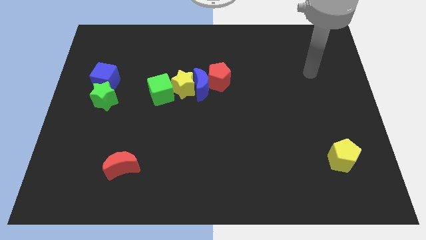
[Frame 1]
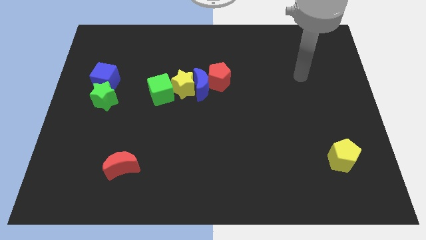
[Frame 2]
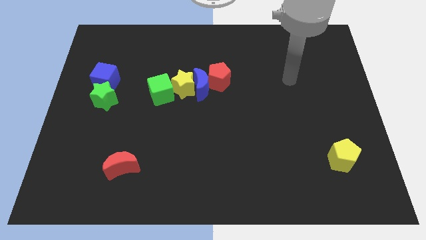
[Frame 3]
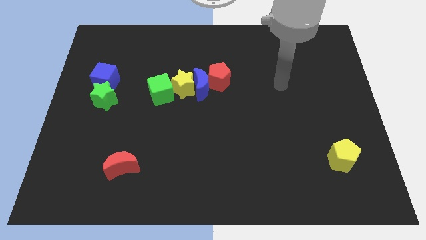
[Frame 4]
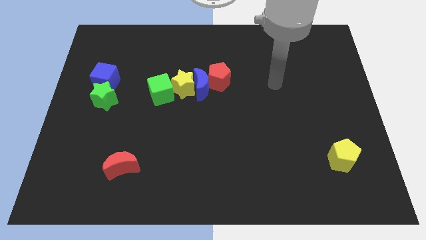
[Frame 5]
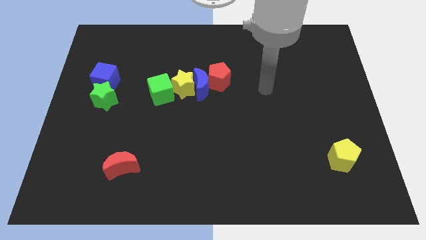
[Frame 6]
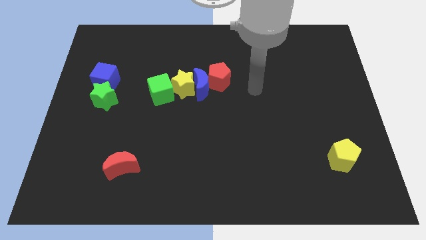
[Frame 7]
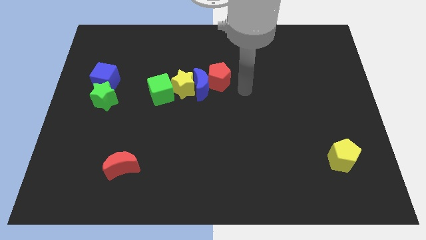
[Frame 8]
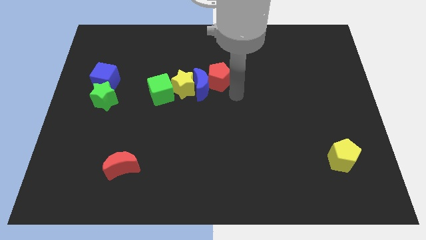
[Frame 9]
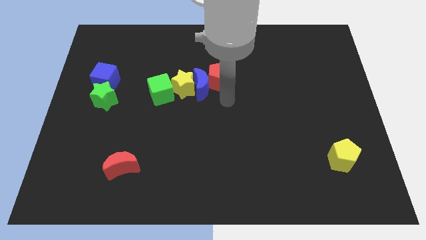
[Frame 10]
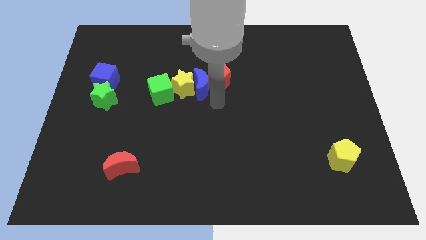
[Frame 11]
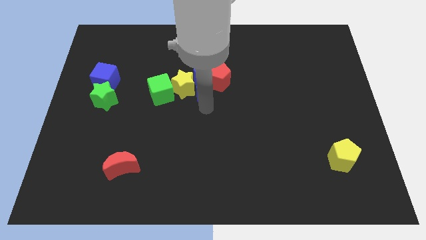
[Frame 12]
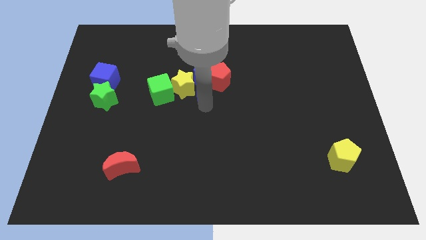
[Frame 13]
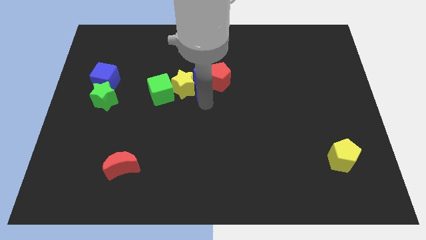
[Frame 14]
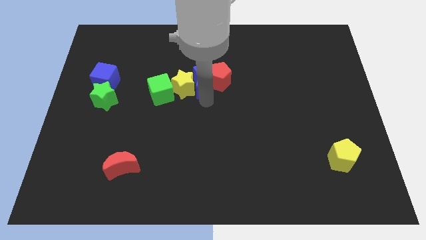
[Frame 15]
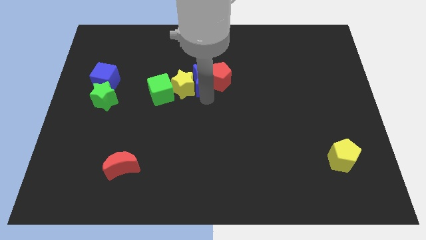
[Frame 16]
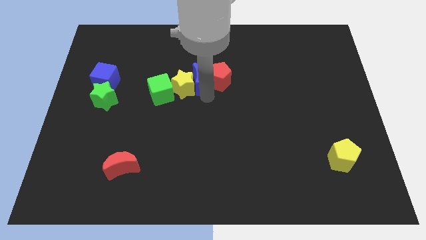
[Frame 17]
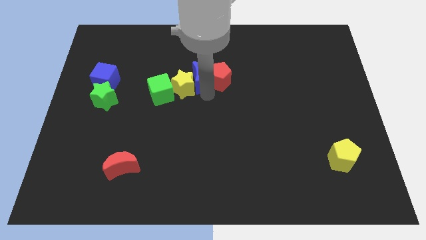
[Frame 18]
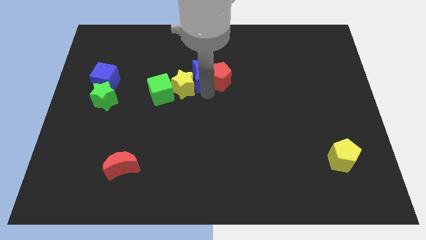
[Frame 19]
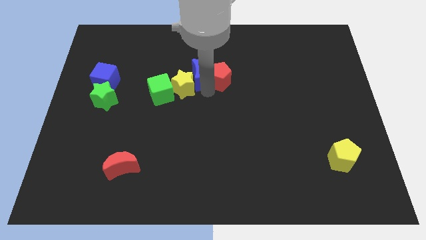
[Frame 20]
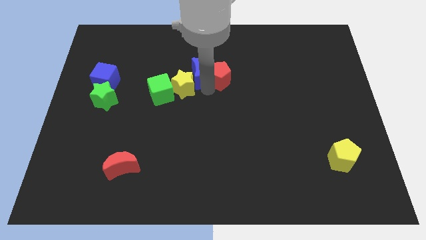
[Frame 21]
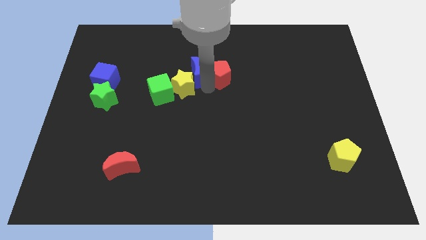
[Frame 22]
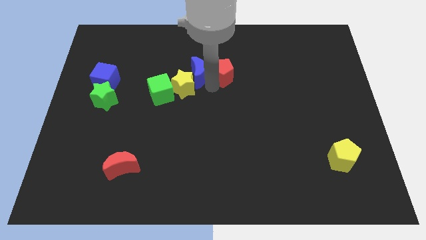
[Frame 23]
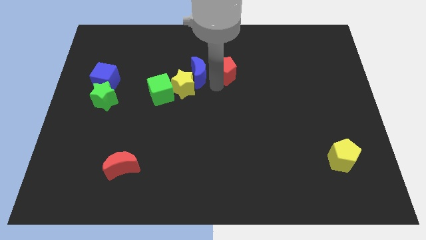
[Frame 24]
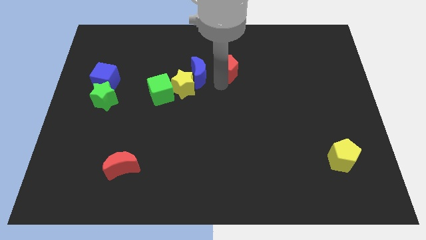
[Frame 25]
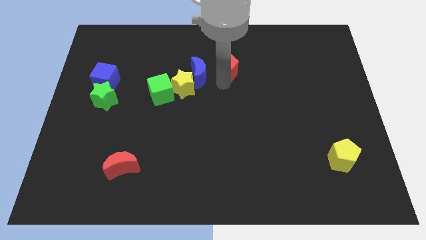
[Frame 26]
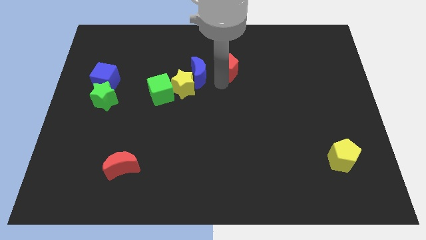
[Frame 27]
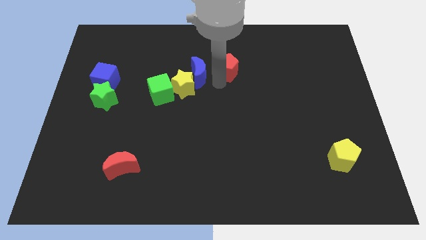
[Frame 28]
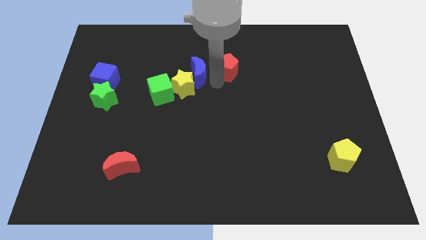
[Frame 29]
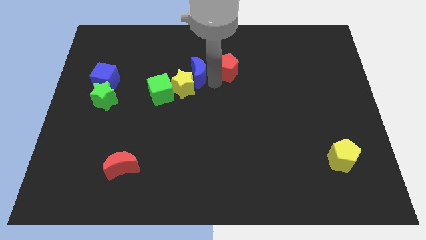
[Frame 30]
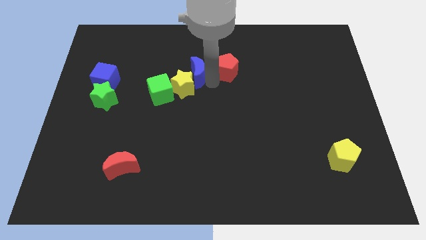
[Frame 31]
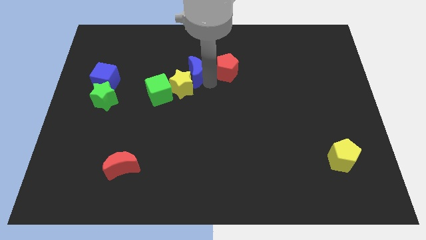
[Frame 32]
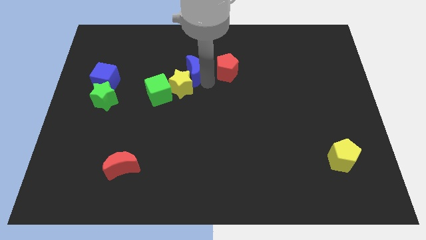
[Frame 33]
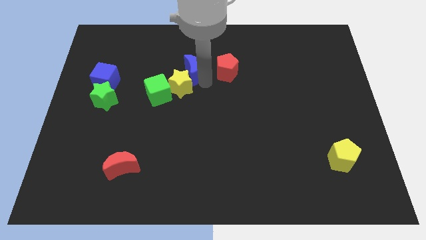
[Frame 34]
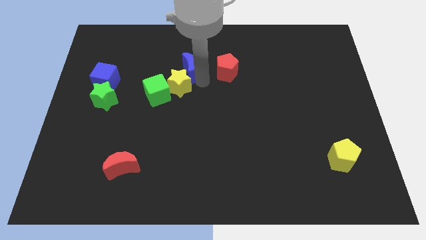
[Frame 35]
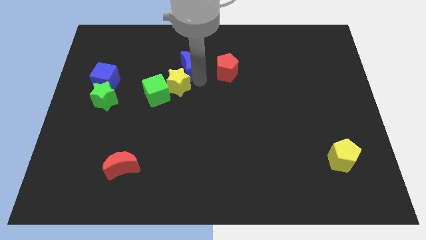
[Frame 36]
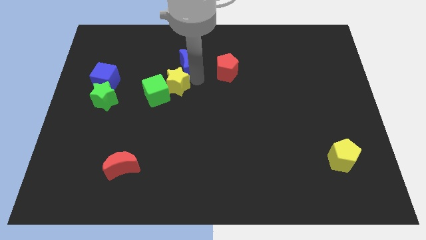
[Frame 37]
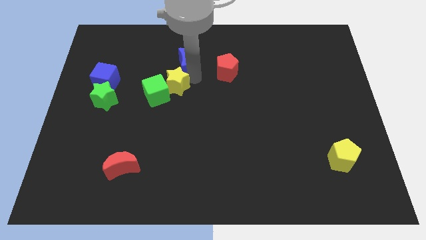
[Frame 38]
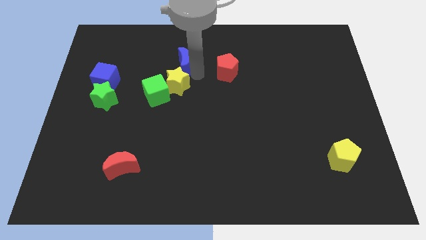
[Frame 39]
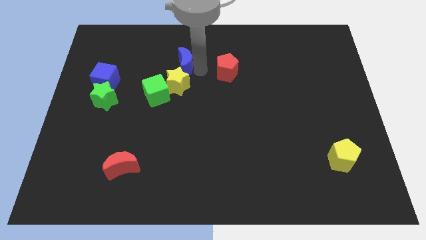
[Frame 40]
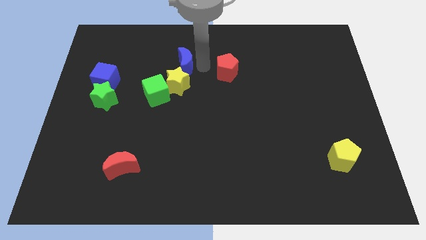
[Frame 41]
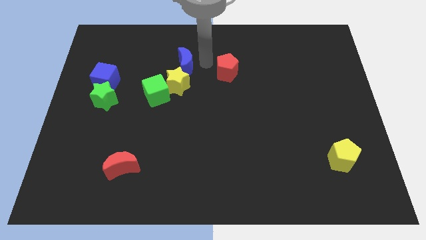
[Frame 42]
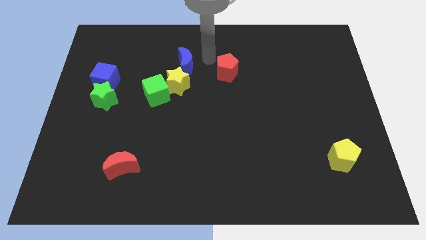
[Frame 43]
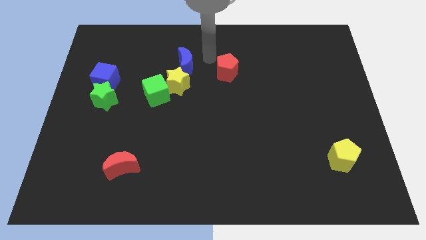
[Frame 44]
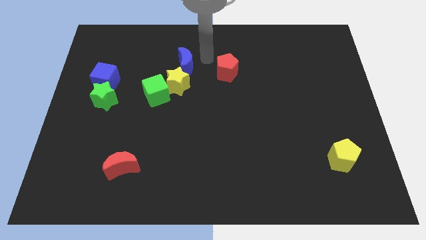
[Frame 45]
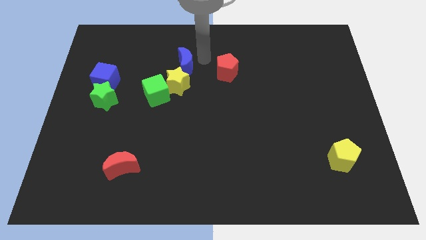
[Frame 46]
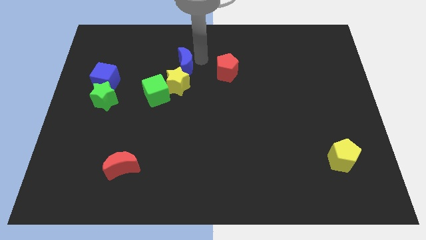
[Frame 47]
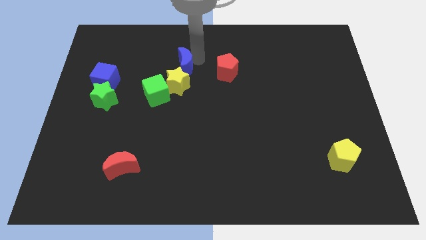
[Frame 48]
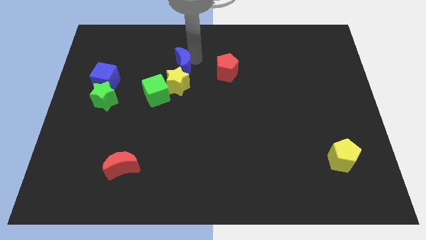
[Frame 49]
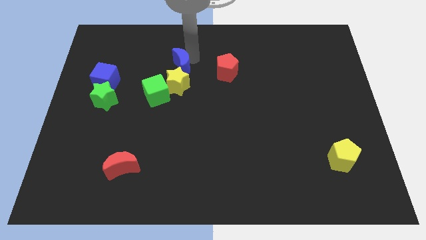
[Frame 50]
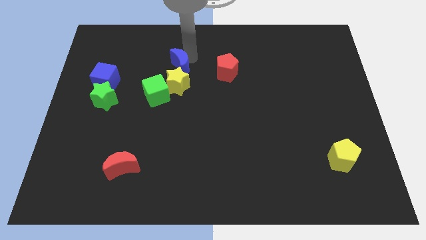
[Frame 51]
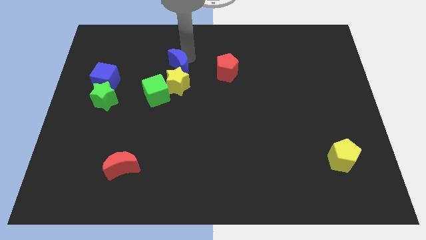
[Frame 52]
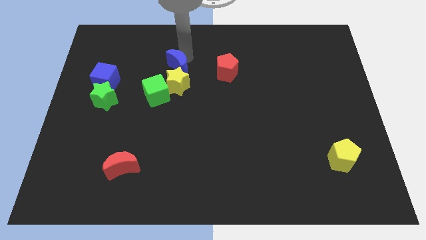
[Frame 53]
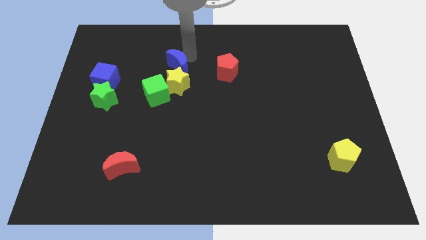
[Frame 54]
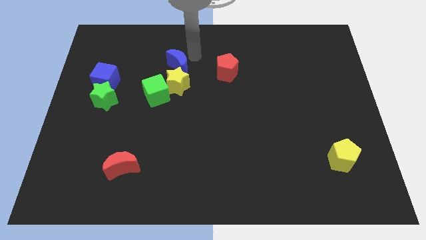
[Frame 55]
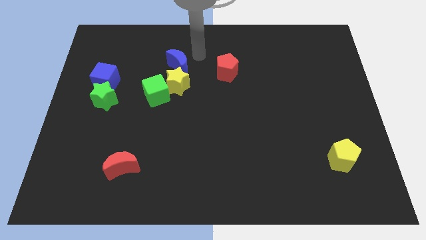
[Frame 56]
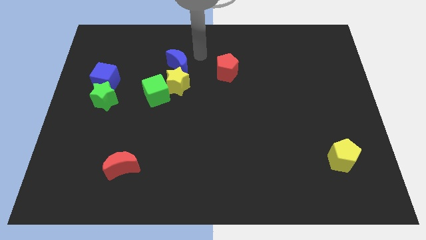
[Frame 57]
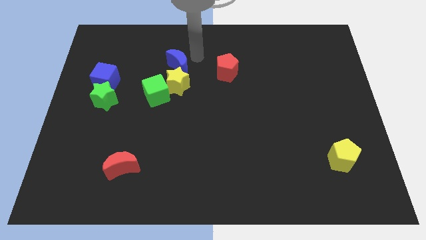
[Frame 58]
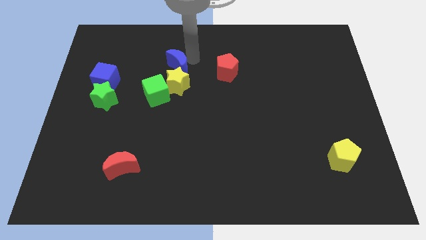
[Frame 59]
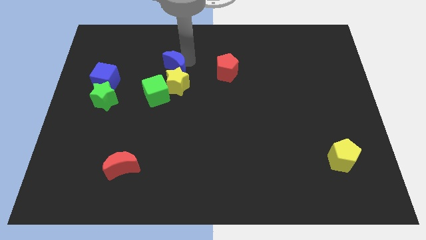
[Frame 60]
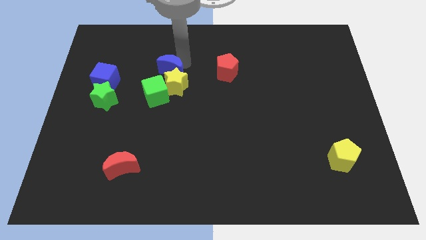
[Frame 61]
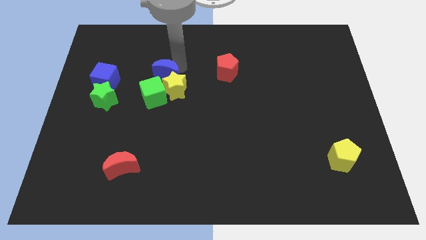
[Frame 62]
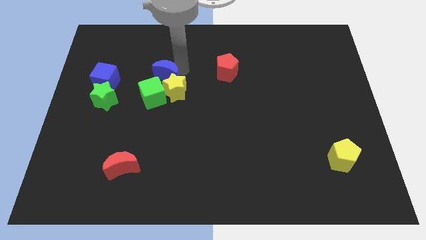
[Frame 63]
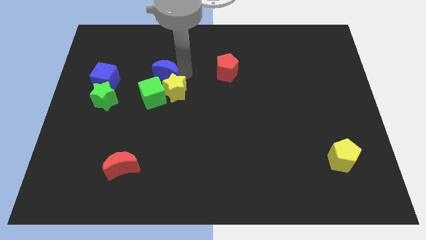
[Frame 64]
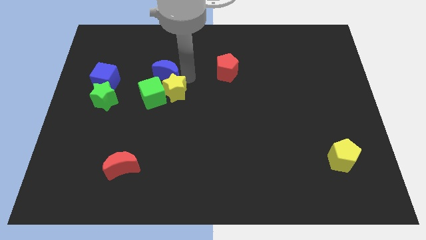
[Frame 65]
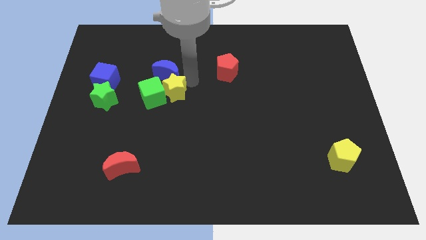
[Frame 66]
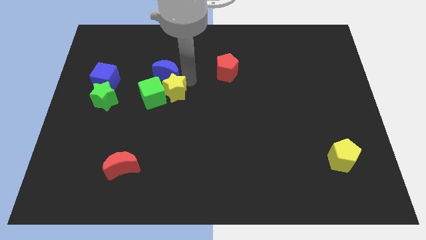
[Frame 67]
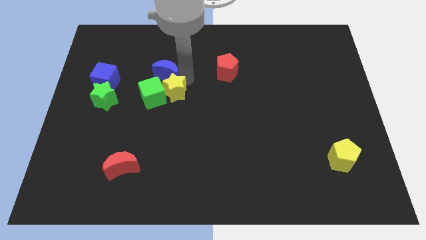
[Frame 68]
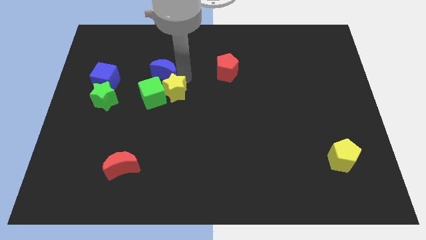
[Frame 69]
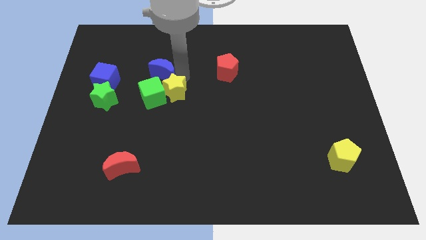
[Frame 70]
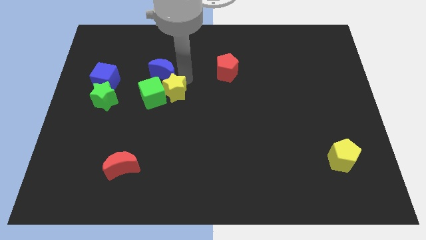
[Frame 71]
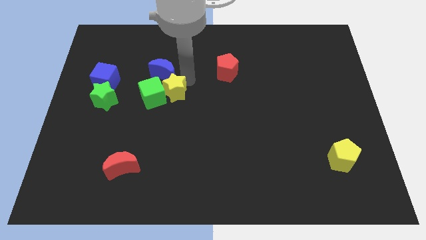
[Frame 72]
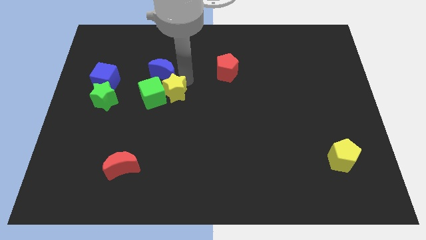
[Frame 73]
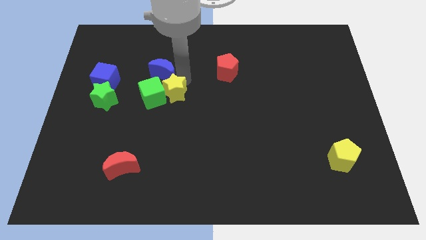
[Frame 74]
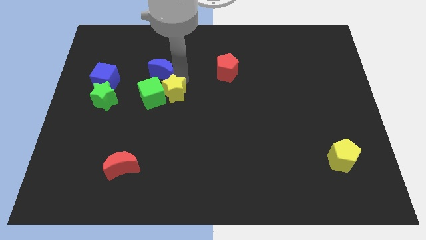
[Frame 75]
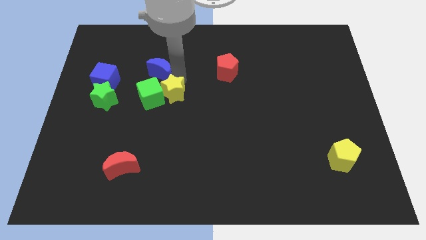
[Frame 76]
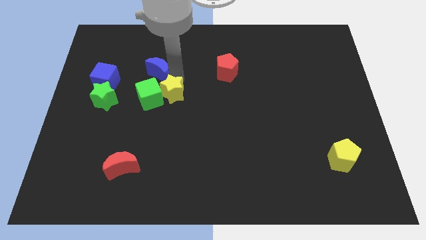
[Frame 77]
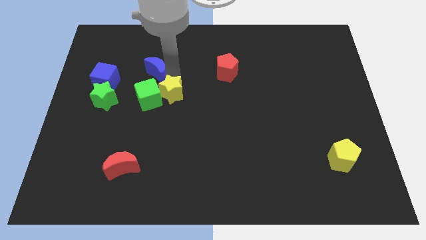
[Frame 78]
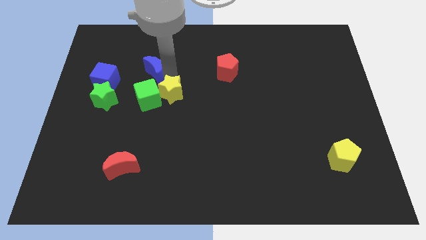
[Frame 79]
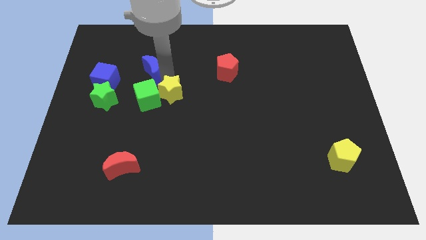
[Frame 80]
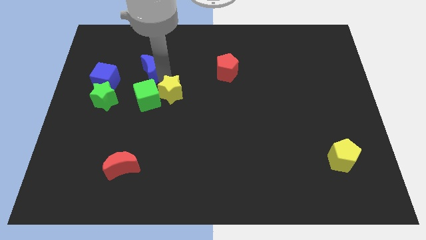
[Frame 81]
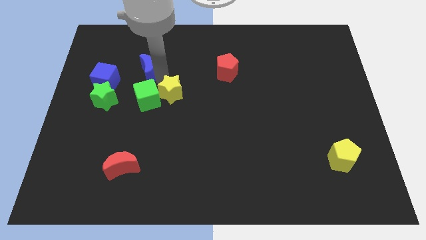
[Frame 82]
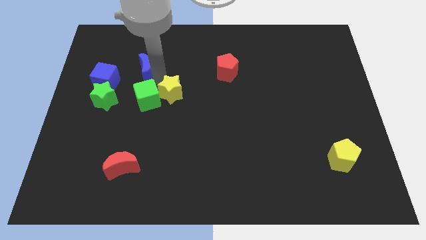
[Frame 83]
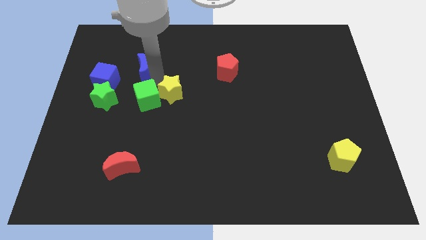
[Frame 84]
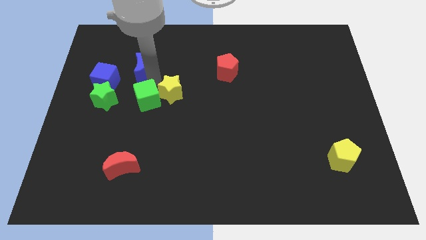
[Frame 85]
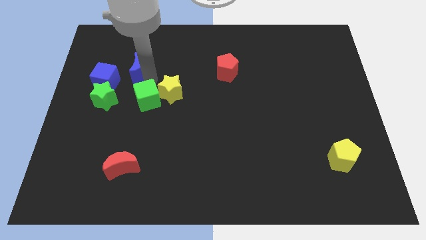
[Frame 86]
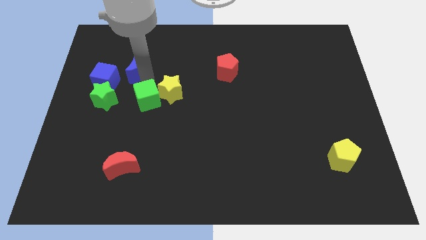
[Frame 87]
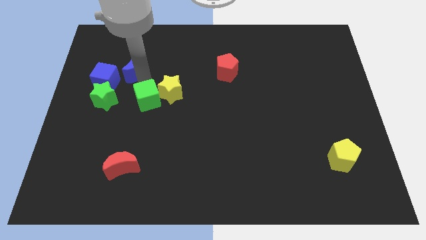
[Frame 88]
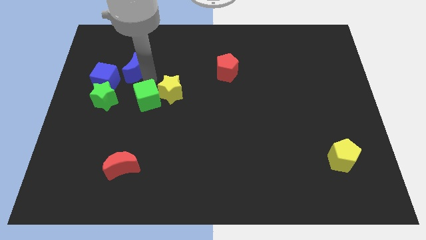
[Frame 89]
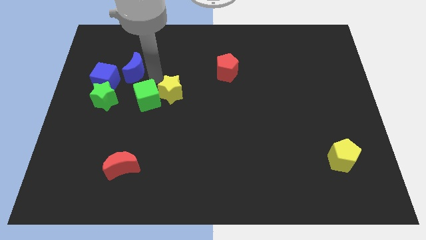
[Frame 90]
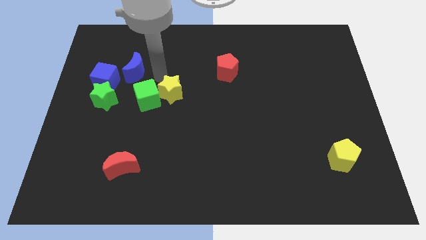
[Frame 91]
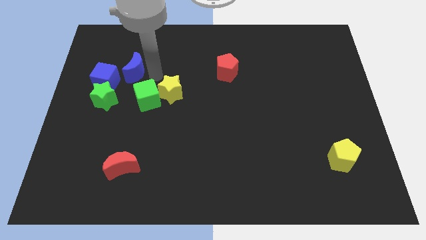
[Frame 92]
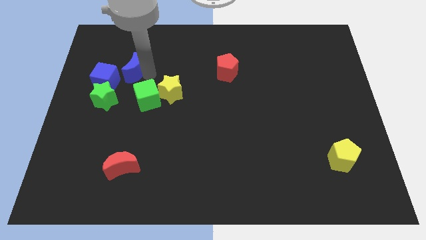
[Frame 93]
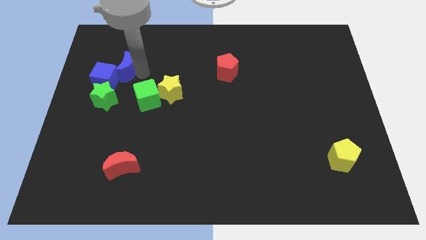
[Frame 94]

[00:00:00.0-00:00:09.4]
put the blue moon to the top side of the green star
